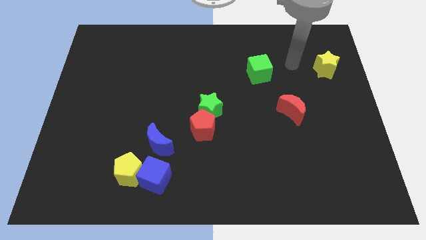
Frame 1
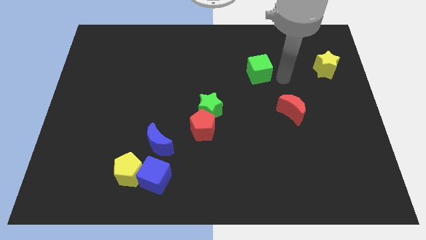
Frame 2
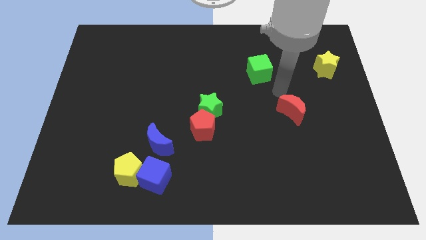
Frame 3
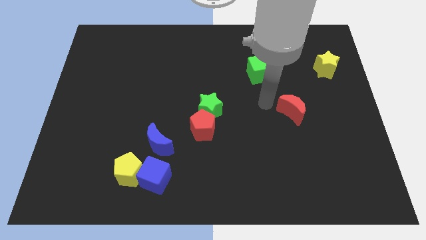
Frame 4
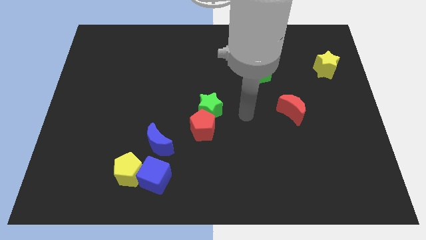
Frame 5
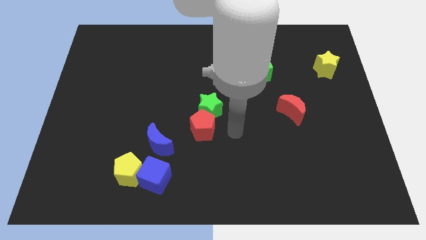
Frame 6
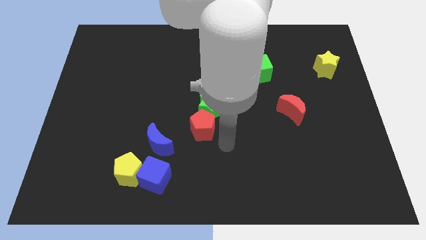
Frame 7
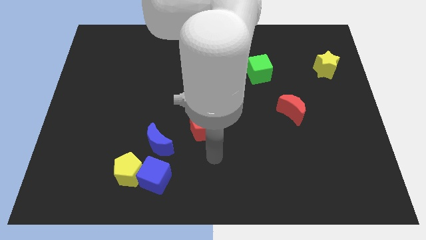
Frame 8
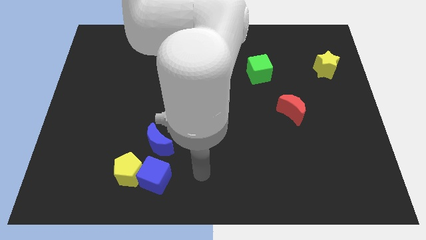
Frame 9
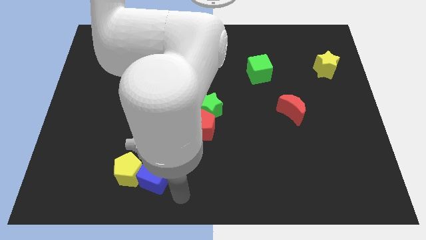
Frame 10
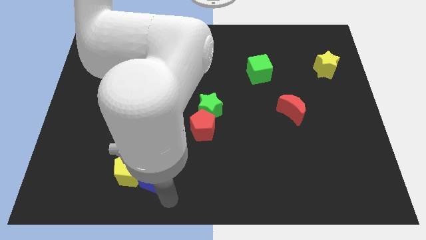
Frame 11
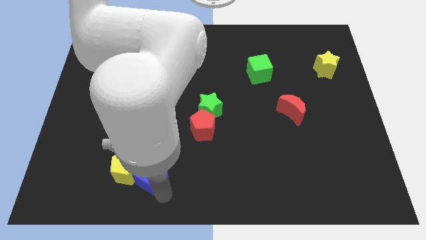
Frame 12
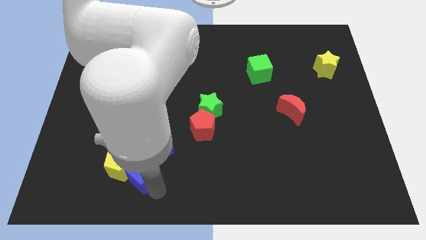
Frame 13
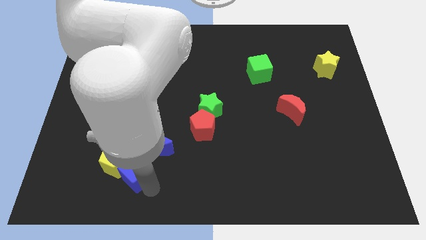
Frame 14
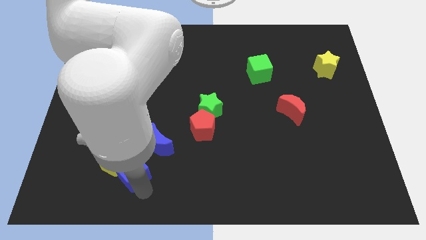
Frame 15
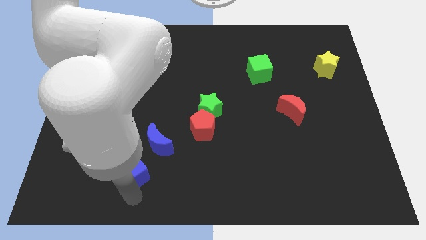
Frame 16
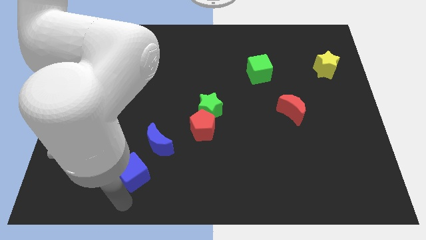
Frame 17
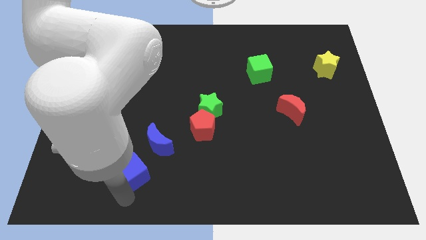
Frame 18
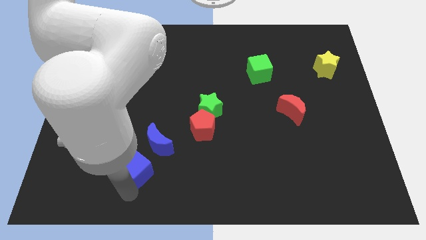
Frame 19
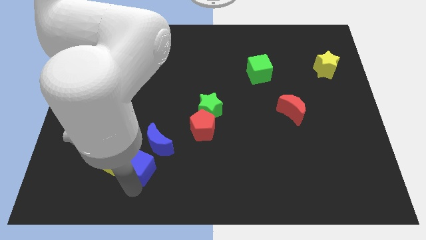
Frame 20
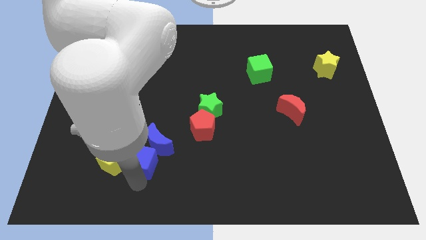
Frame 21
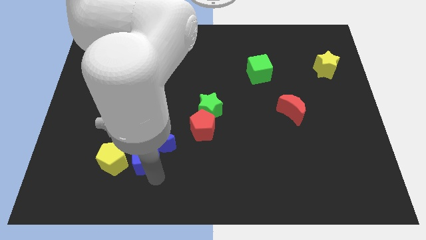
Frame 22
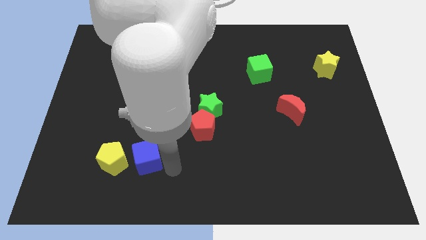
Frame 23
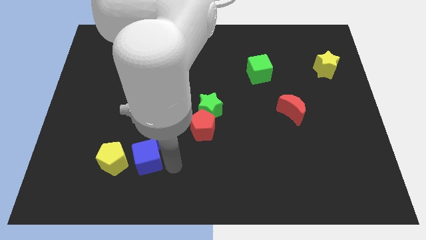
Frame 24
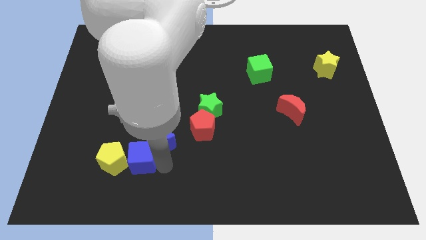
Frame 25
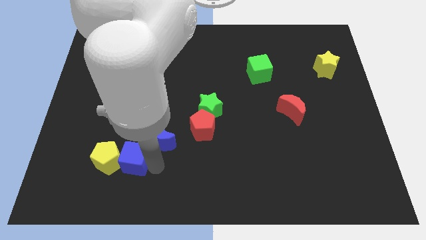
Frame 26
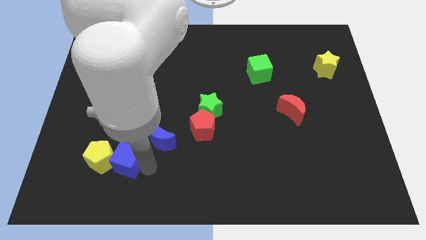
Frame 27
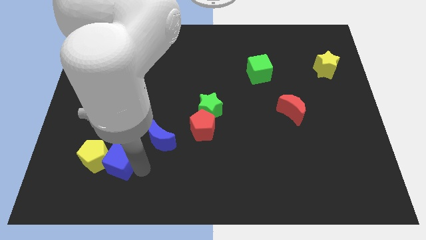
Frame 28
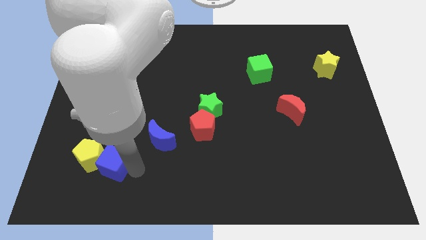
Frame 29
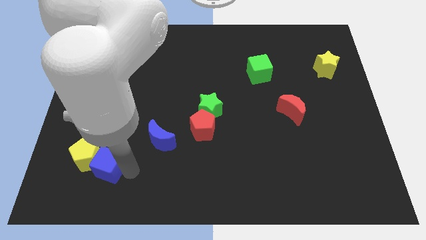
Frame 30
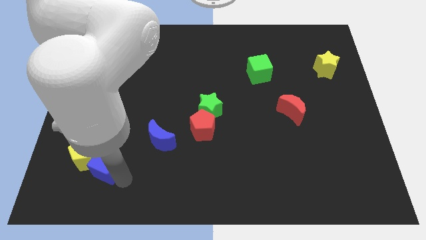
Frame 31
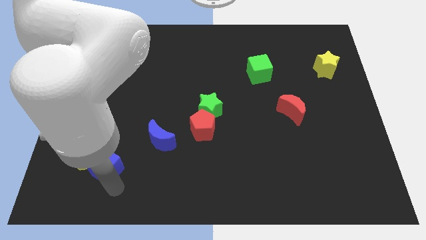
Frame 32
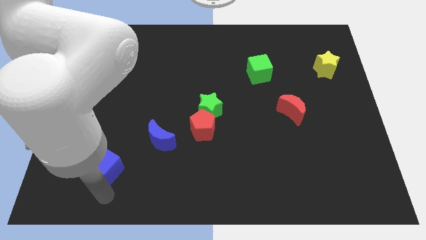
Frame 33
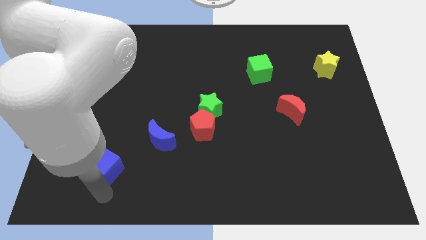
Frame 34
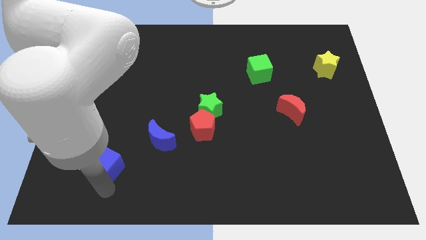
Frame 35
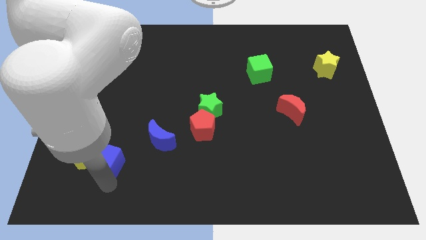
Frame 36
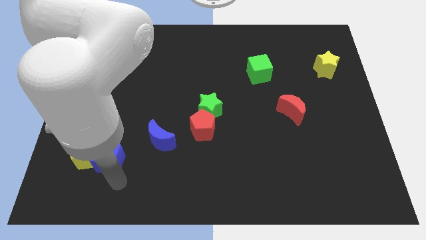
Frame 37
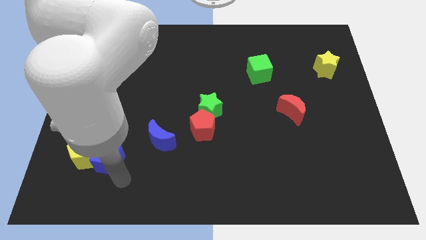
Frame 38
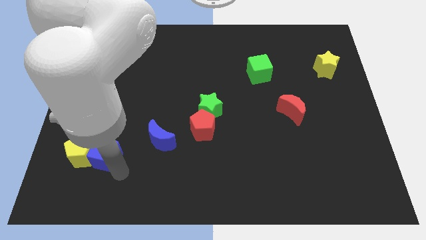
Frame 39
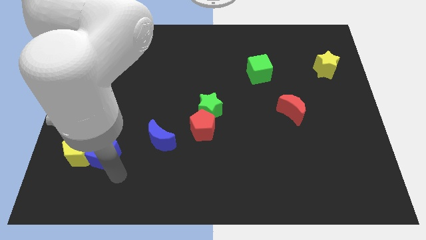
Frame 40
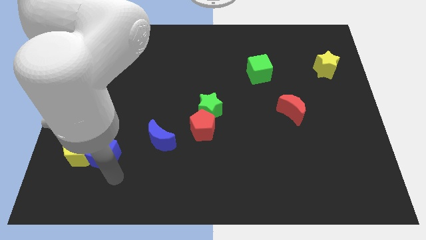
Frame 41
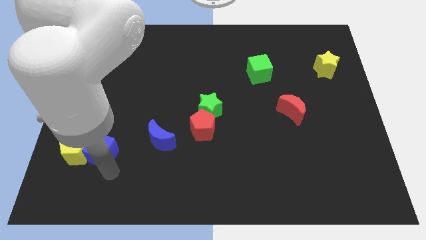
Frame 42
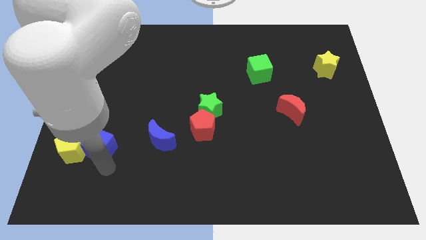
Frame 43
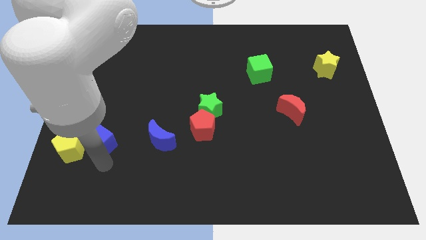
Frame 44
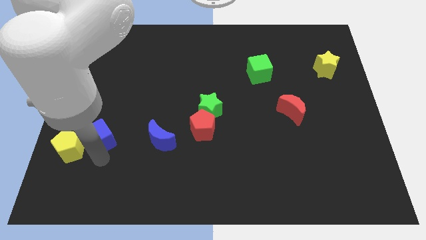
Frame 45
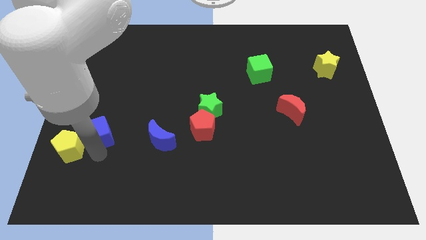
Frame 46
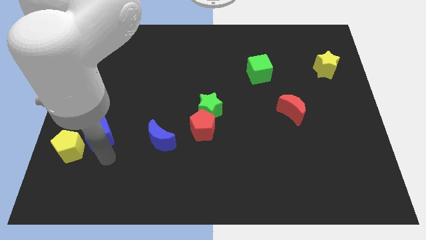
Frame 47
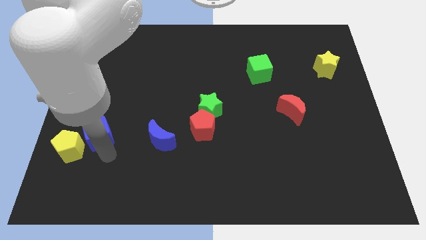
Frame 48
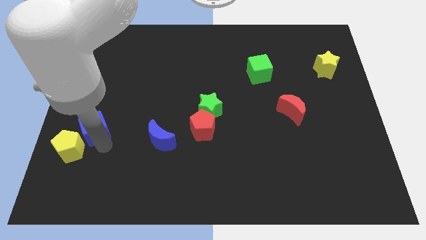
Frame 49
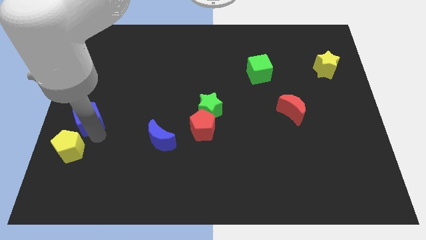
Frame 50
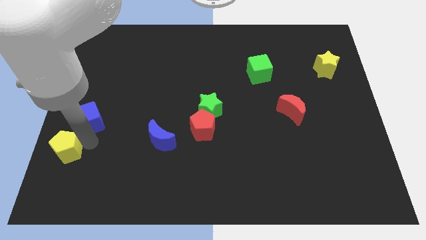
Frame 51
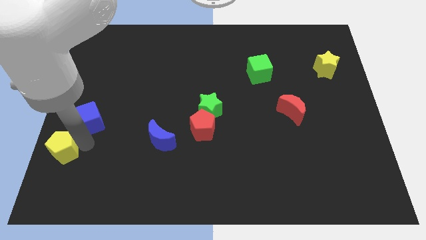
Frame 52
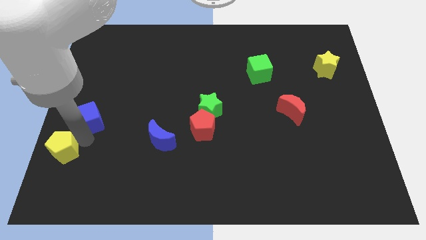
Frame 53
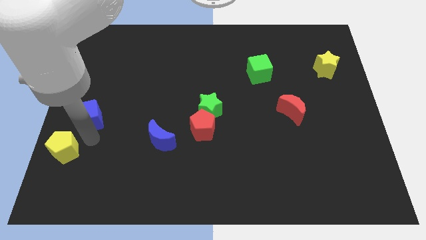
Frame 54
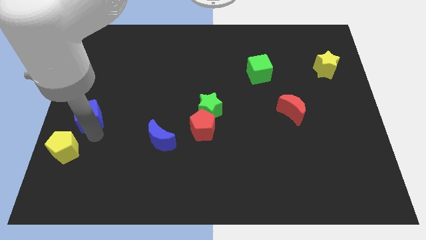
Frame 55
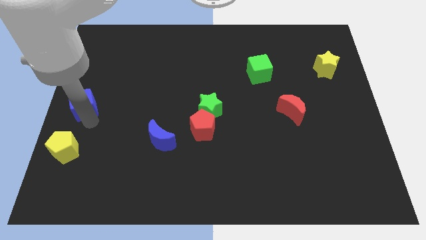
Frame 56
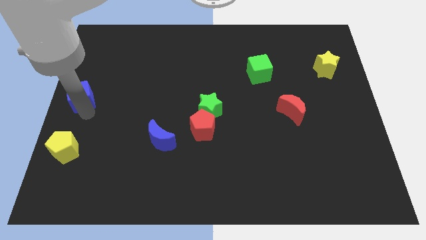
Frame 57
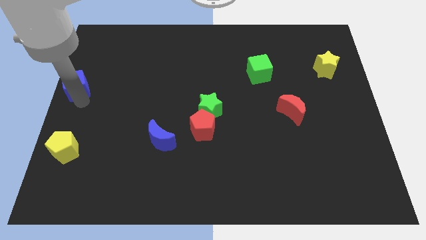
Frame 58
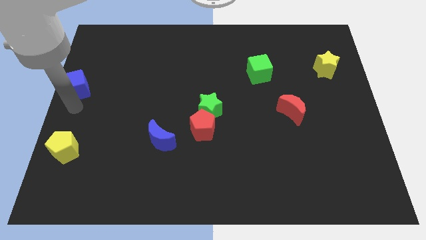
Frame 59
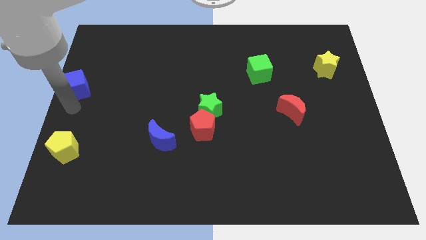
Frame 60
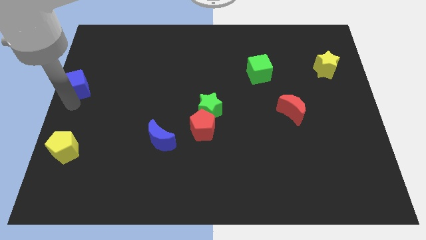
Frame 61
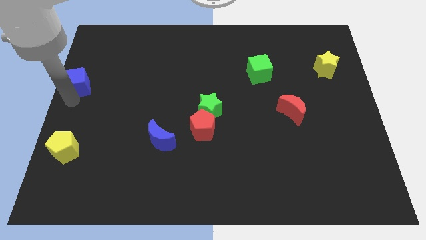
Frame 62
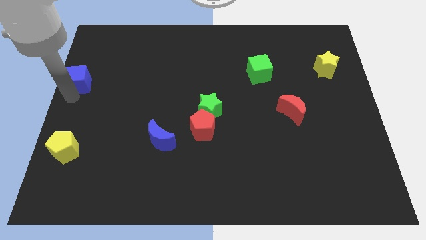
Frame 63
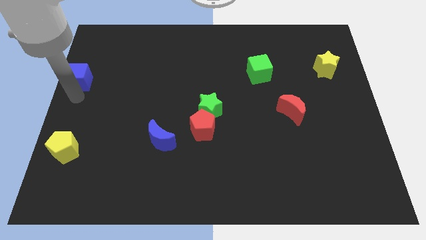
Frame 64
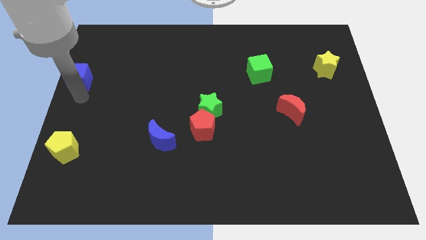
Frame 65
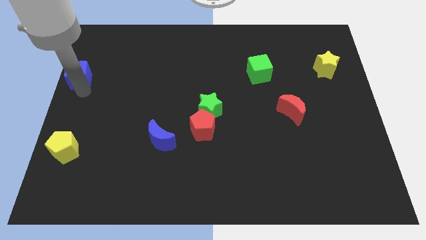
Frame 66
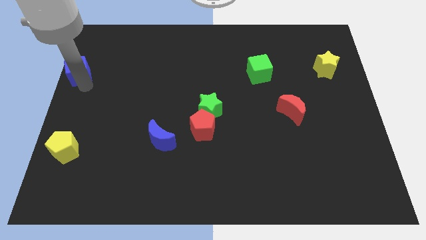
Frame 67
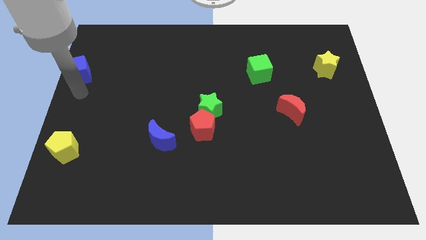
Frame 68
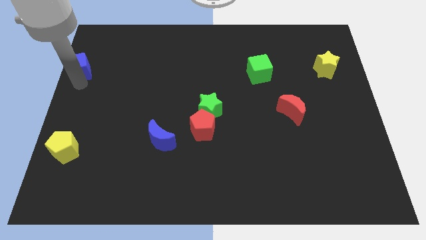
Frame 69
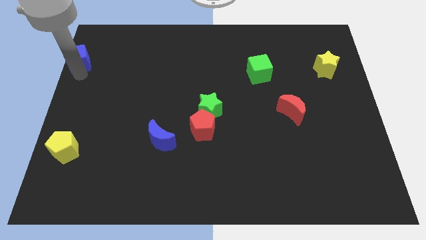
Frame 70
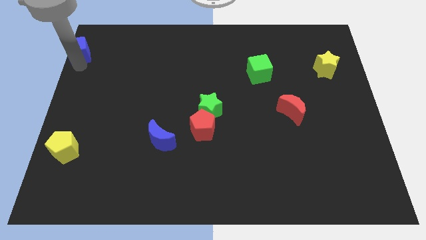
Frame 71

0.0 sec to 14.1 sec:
move the blue cube to the top left corner
